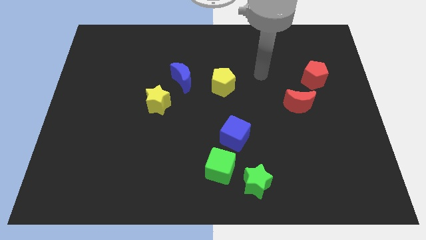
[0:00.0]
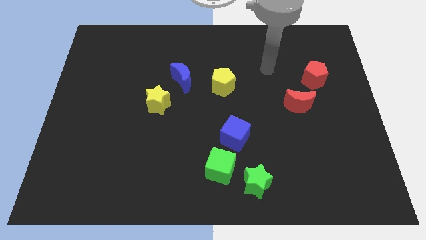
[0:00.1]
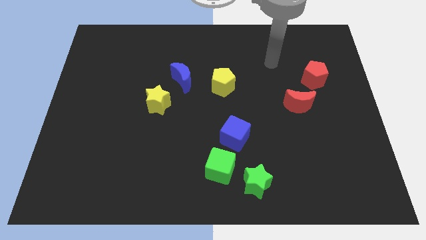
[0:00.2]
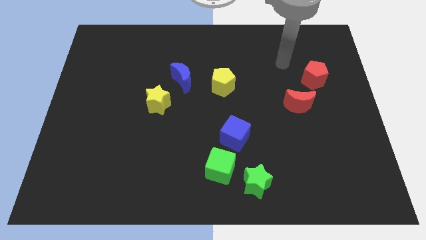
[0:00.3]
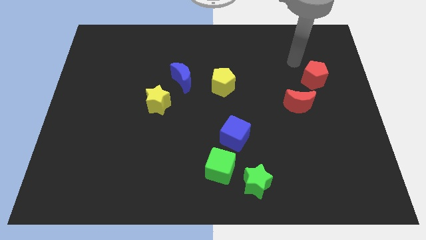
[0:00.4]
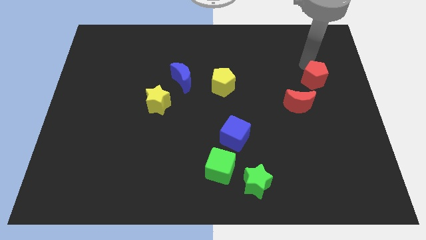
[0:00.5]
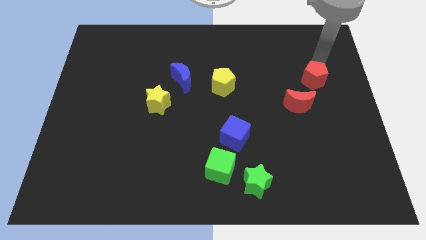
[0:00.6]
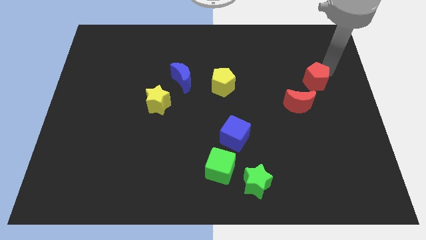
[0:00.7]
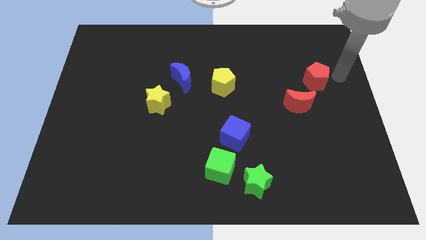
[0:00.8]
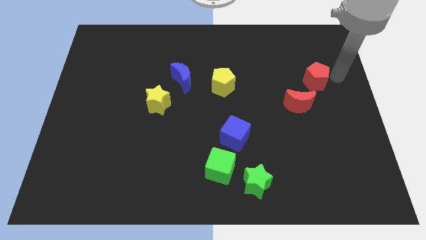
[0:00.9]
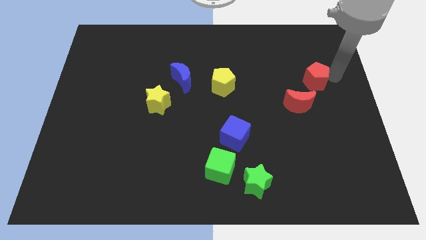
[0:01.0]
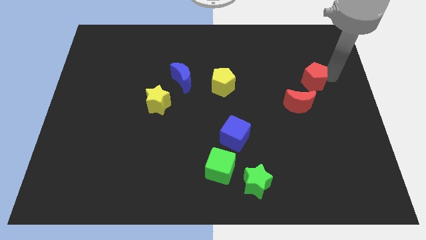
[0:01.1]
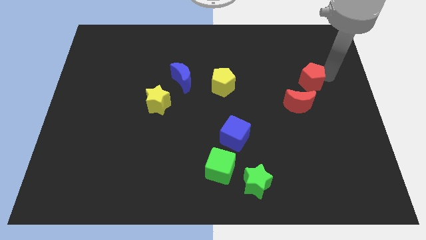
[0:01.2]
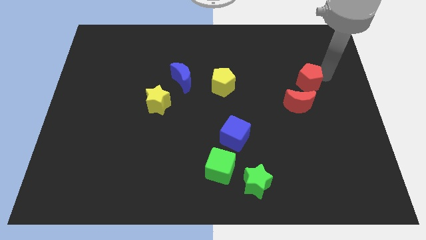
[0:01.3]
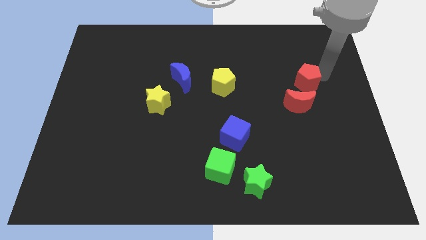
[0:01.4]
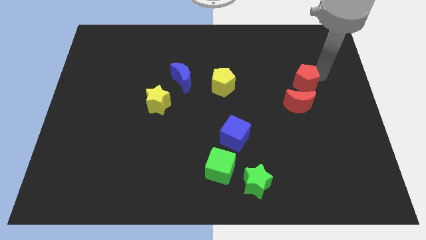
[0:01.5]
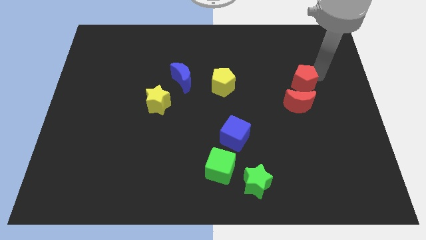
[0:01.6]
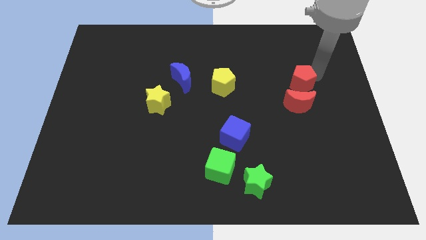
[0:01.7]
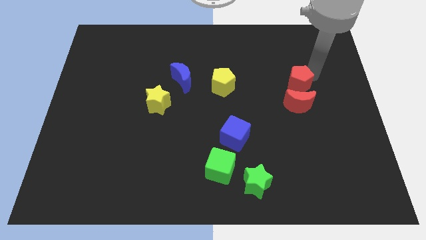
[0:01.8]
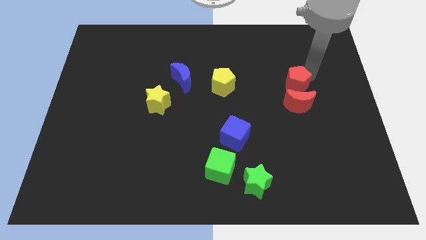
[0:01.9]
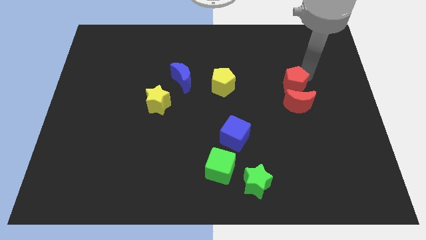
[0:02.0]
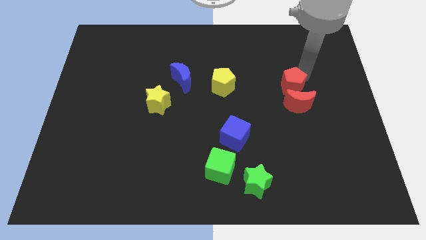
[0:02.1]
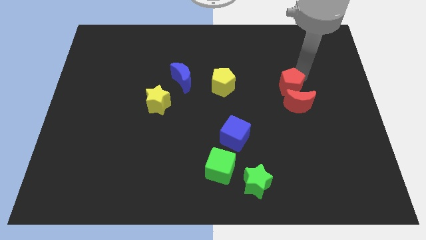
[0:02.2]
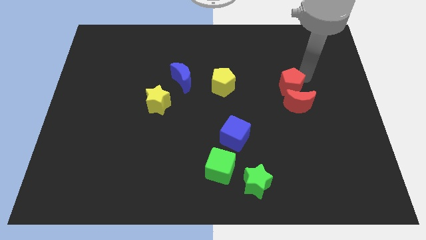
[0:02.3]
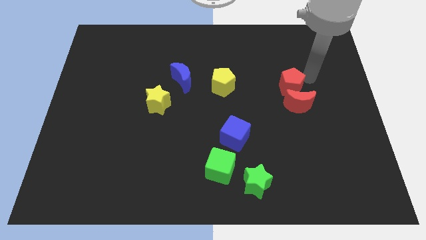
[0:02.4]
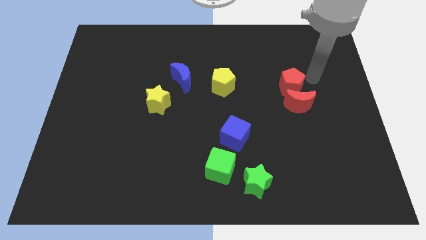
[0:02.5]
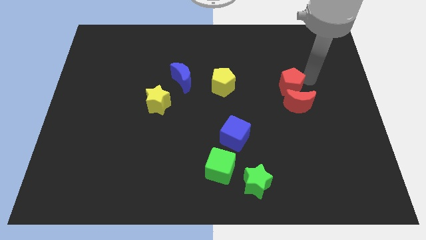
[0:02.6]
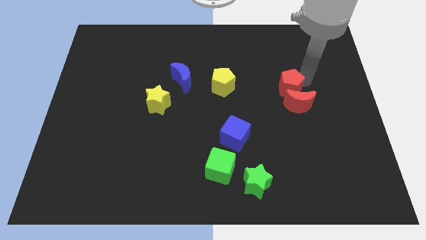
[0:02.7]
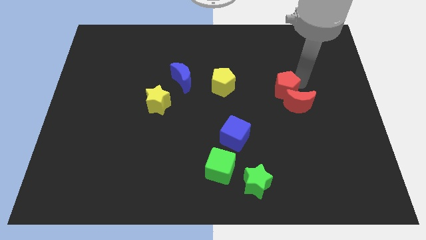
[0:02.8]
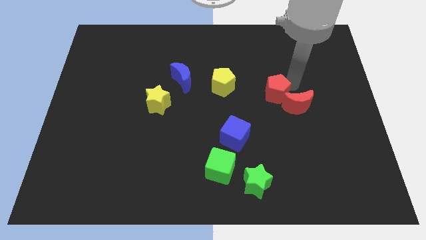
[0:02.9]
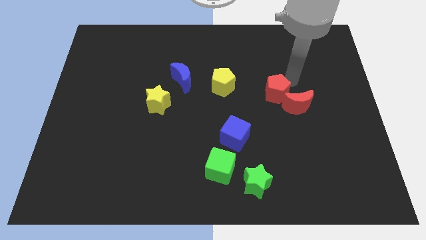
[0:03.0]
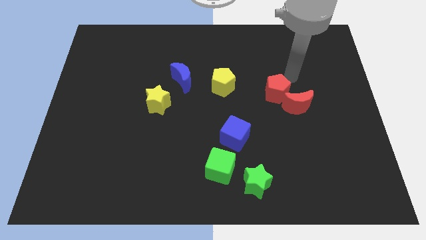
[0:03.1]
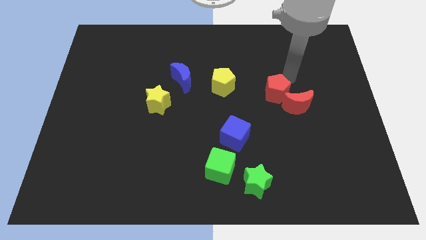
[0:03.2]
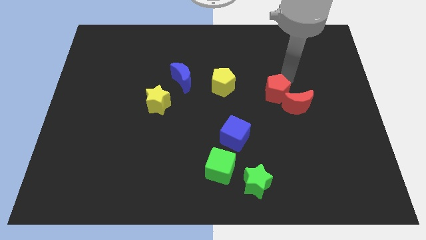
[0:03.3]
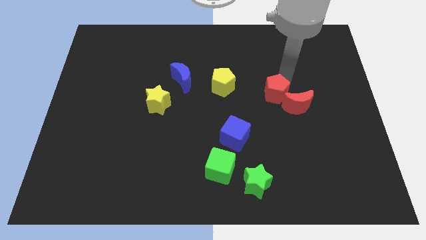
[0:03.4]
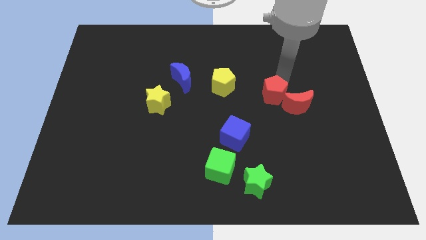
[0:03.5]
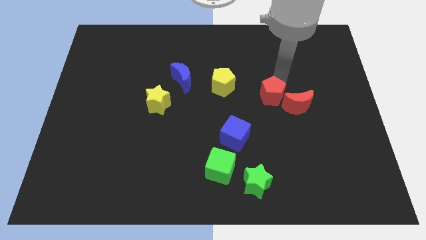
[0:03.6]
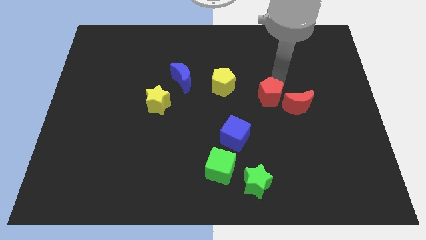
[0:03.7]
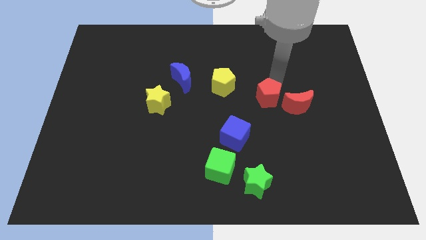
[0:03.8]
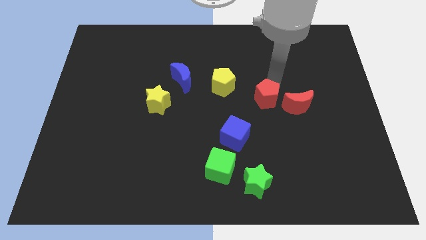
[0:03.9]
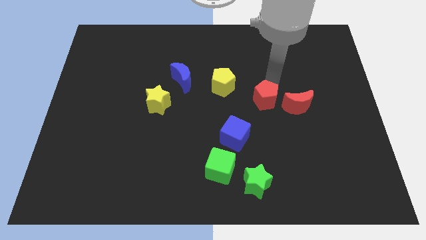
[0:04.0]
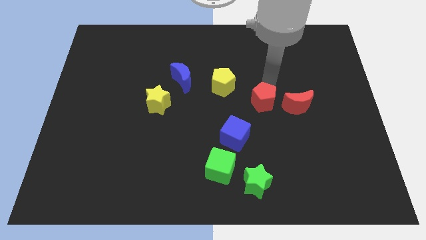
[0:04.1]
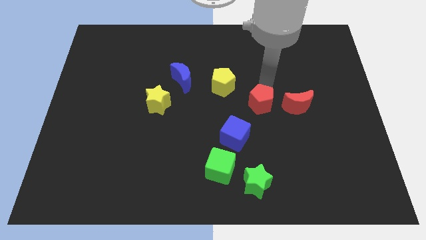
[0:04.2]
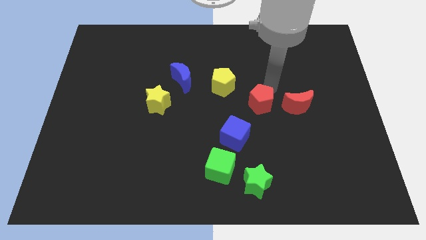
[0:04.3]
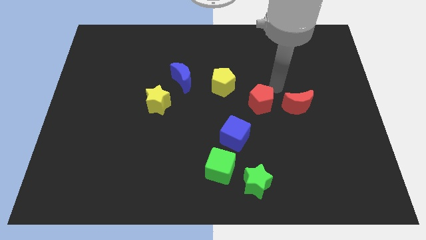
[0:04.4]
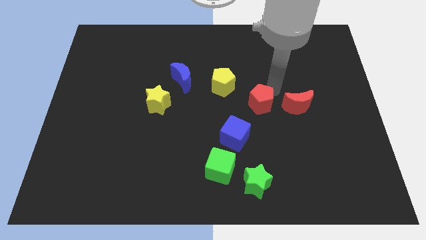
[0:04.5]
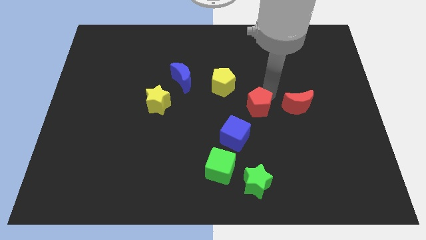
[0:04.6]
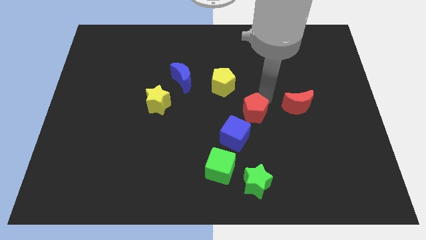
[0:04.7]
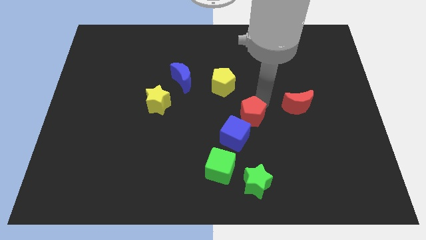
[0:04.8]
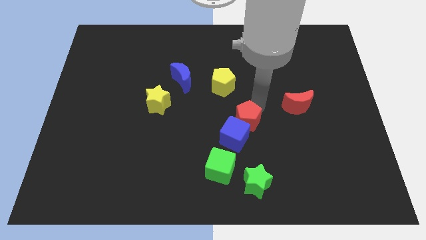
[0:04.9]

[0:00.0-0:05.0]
push the red pentagon close to the blue cube

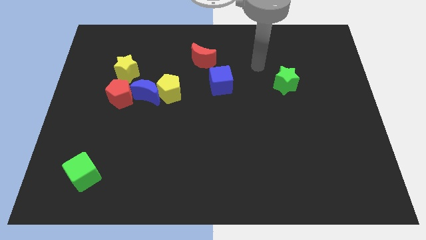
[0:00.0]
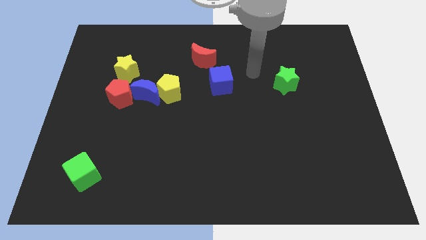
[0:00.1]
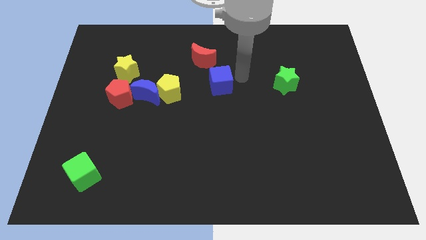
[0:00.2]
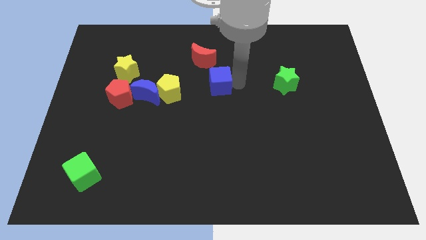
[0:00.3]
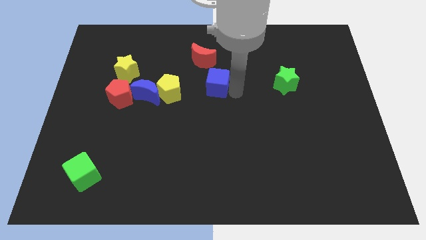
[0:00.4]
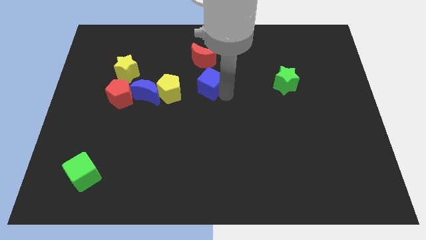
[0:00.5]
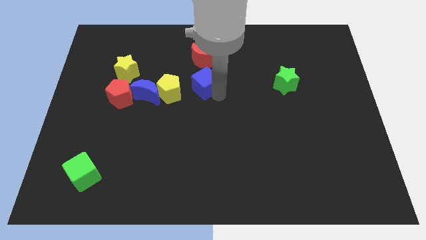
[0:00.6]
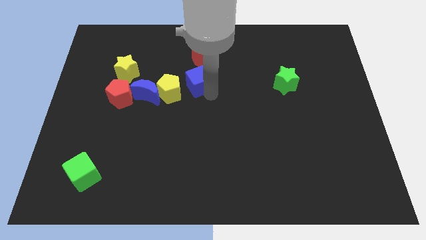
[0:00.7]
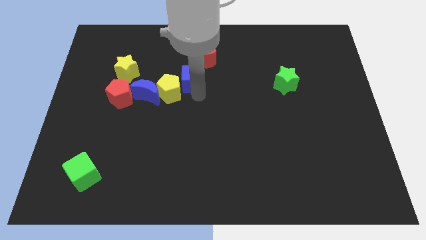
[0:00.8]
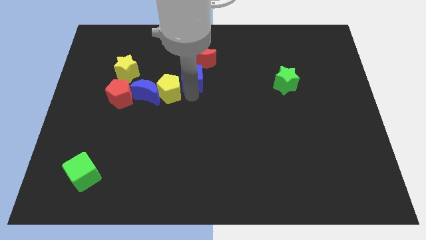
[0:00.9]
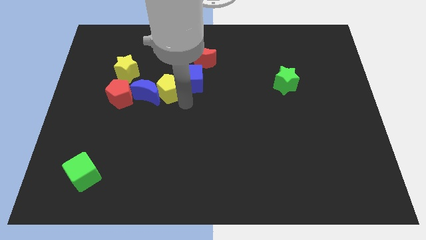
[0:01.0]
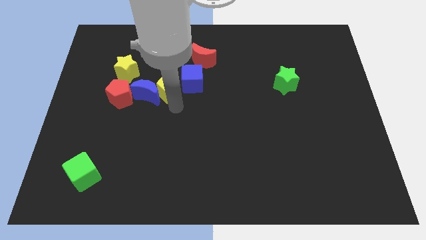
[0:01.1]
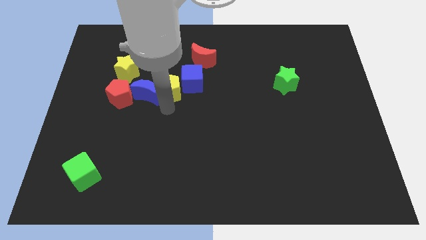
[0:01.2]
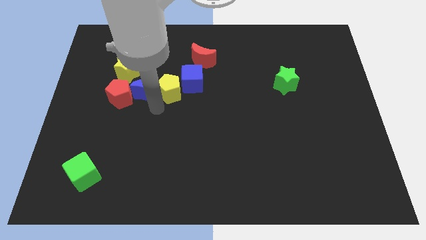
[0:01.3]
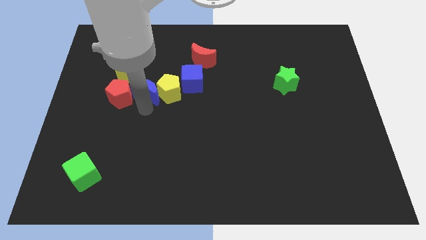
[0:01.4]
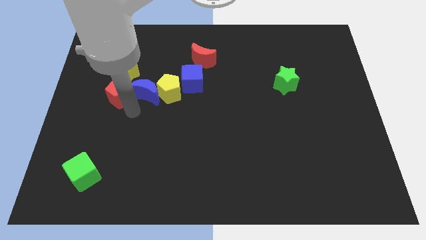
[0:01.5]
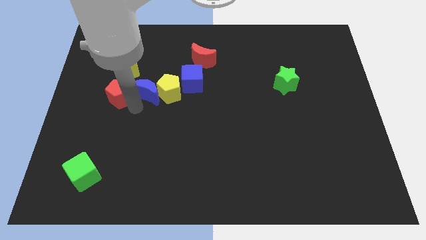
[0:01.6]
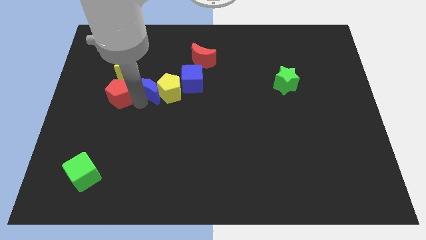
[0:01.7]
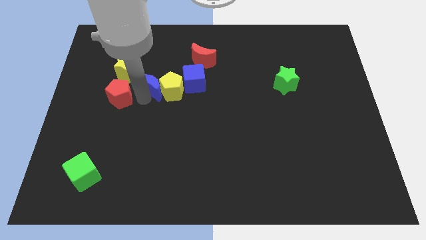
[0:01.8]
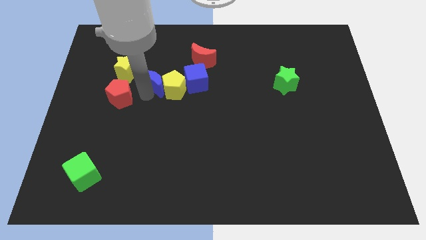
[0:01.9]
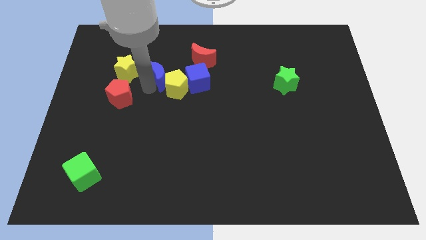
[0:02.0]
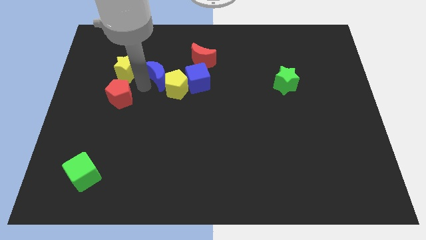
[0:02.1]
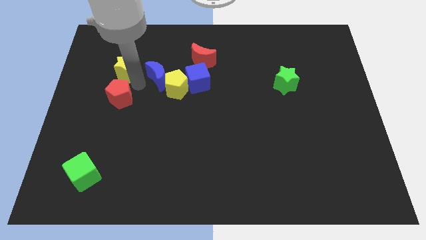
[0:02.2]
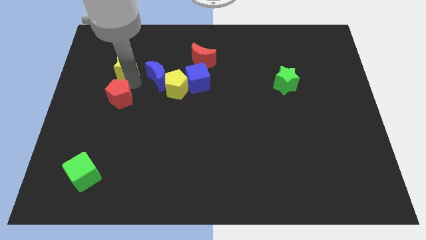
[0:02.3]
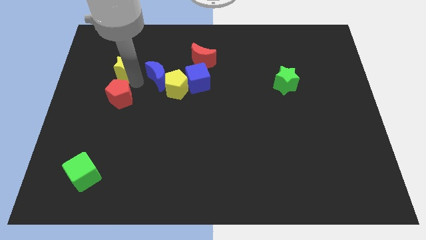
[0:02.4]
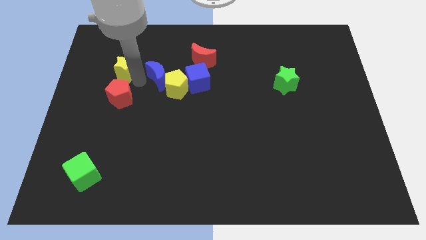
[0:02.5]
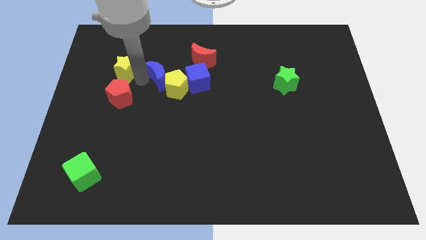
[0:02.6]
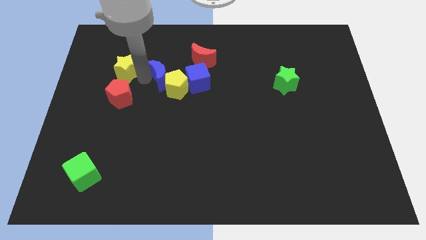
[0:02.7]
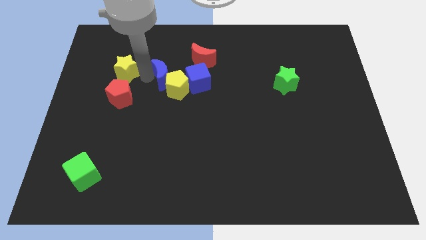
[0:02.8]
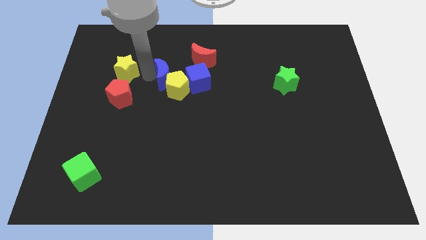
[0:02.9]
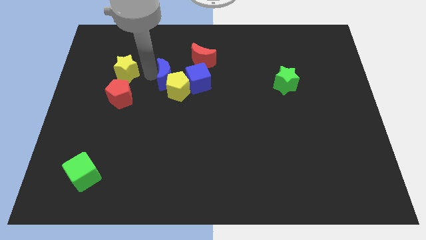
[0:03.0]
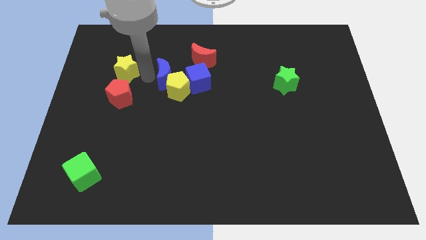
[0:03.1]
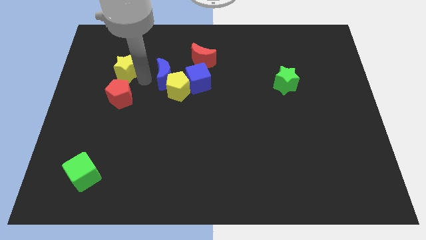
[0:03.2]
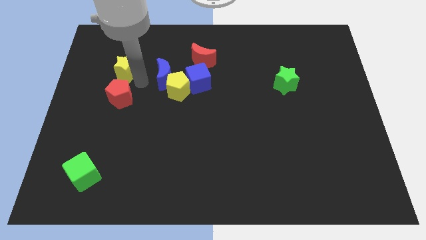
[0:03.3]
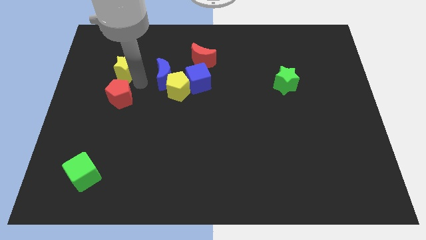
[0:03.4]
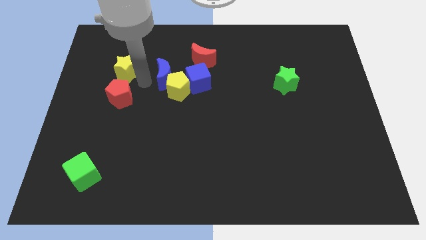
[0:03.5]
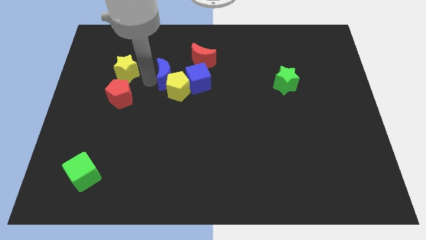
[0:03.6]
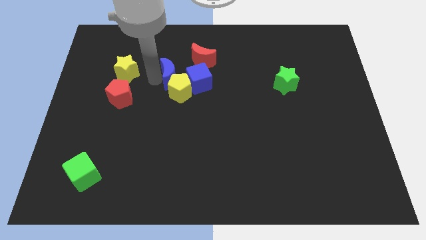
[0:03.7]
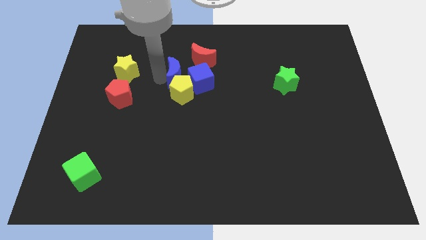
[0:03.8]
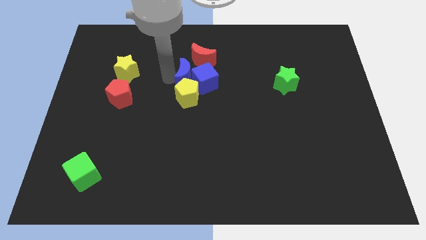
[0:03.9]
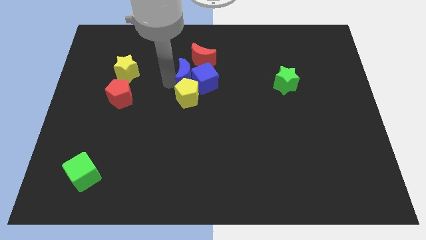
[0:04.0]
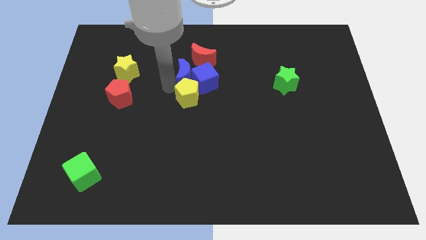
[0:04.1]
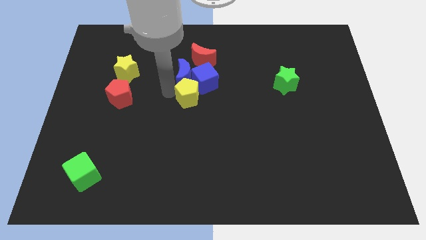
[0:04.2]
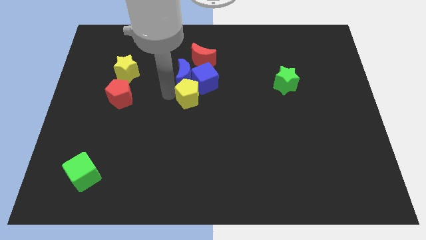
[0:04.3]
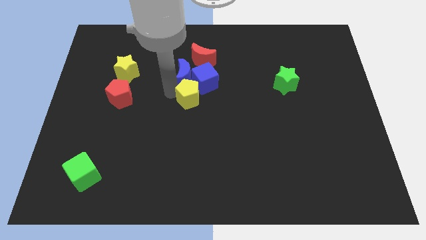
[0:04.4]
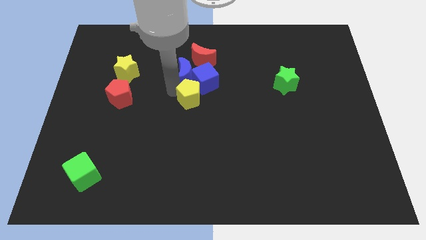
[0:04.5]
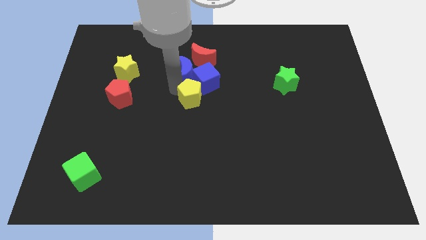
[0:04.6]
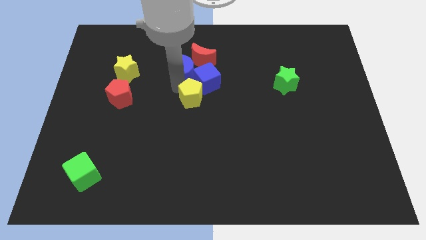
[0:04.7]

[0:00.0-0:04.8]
move the blue moon next to the red moon
